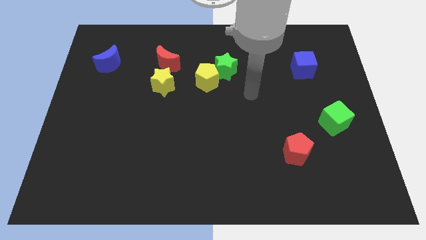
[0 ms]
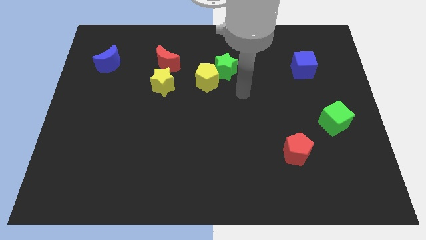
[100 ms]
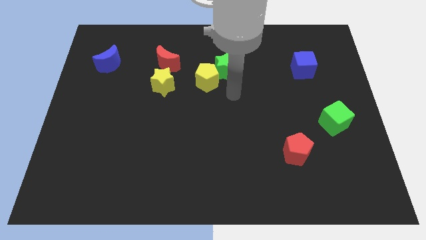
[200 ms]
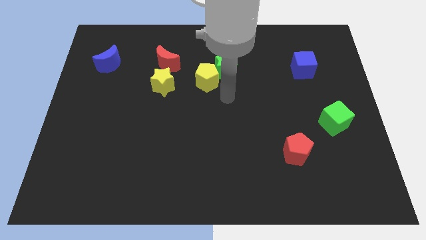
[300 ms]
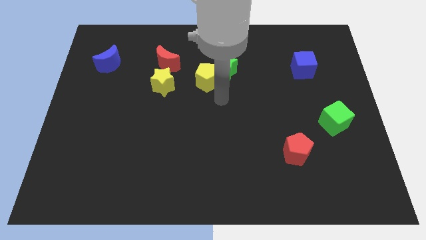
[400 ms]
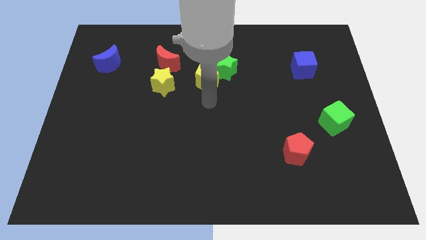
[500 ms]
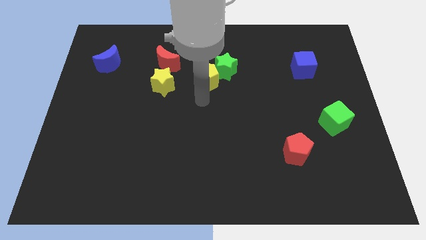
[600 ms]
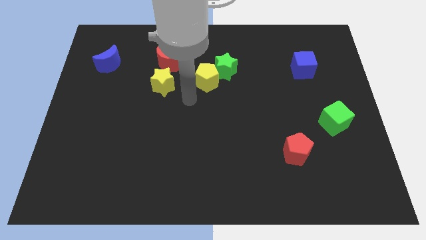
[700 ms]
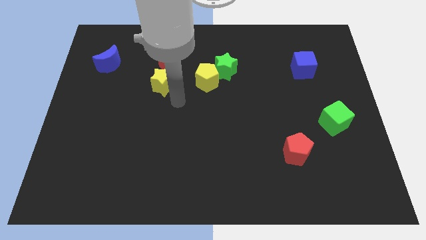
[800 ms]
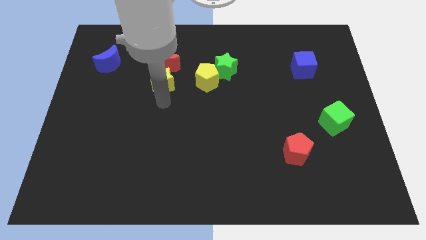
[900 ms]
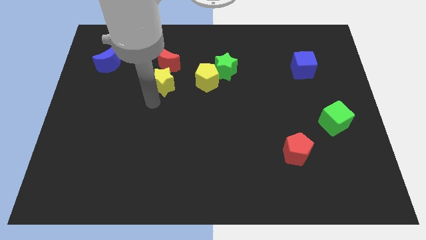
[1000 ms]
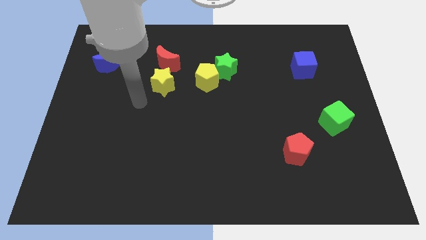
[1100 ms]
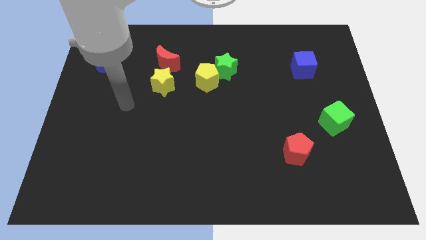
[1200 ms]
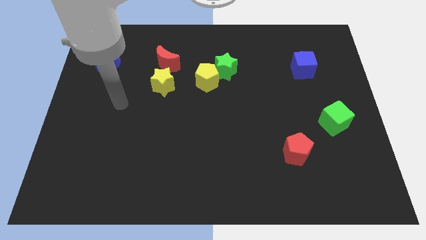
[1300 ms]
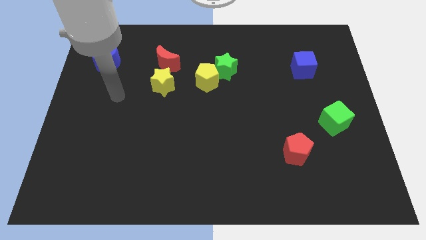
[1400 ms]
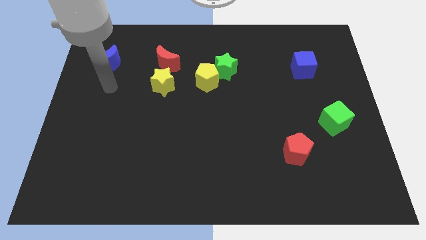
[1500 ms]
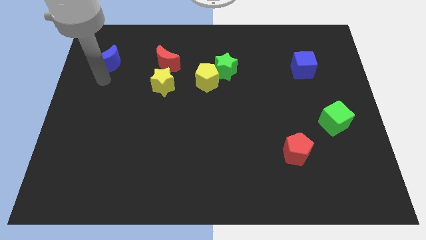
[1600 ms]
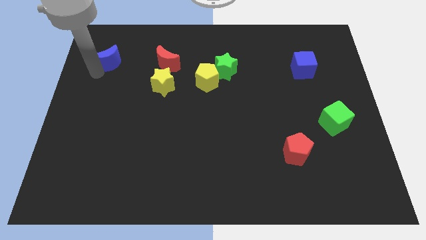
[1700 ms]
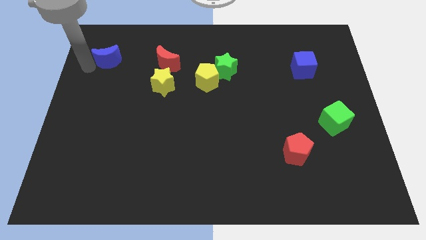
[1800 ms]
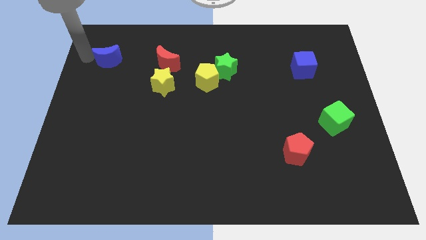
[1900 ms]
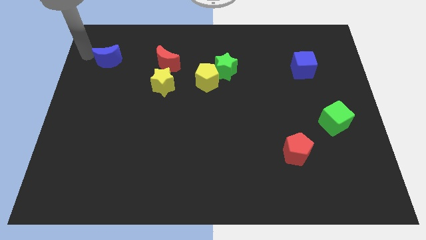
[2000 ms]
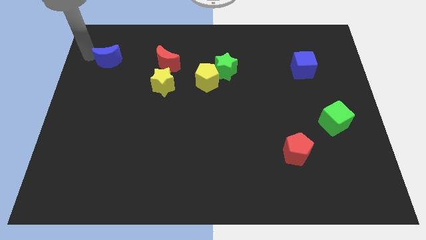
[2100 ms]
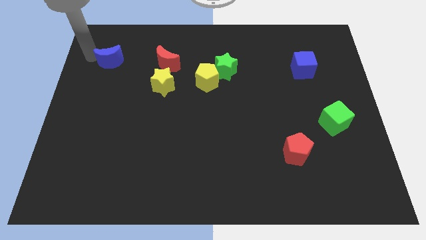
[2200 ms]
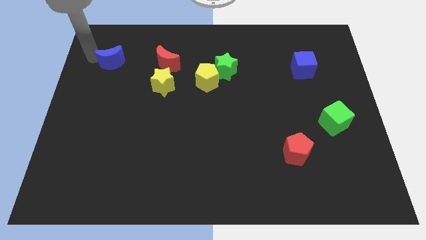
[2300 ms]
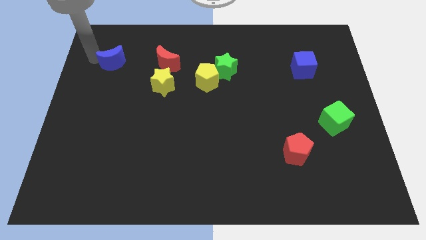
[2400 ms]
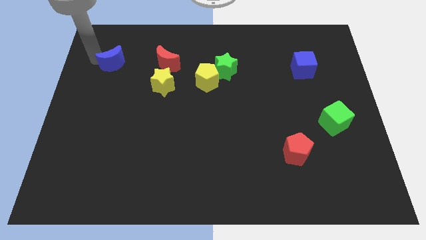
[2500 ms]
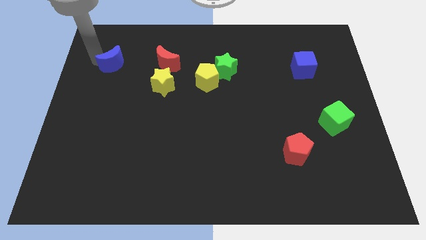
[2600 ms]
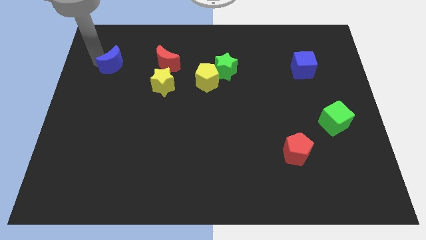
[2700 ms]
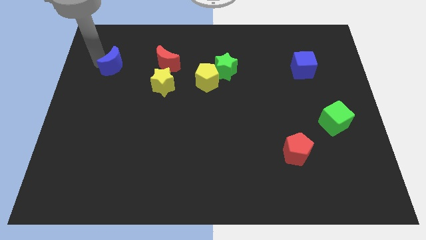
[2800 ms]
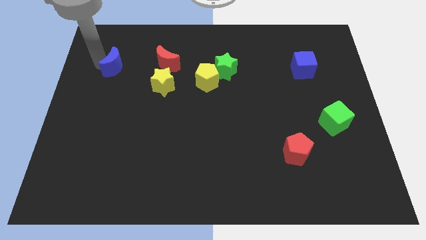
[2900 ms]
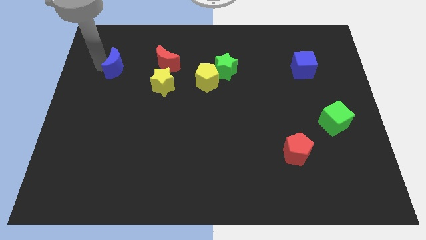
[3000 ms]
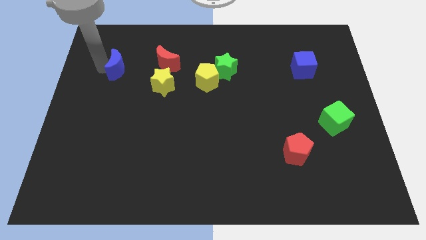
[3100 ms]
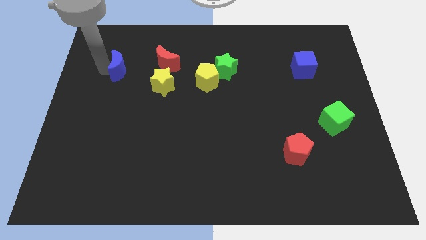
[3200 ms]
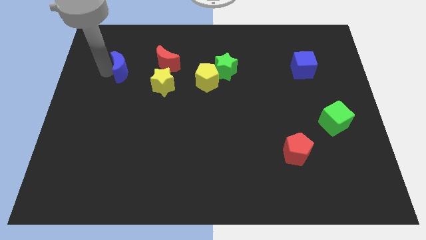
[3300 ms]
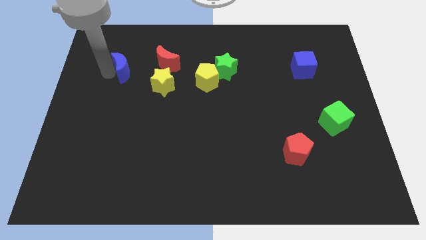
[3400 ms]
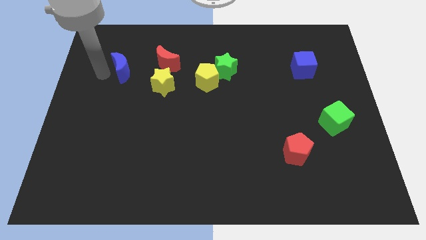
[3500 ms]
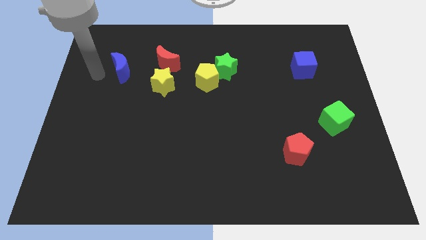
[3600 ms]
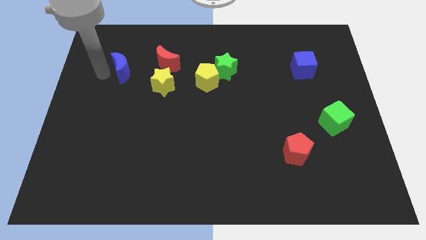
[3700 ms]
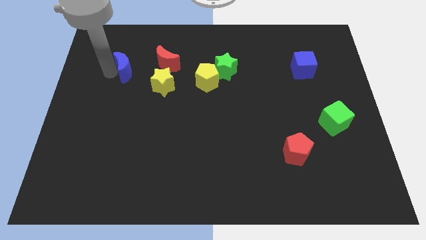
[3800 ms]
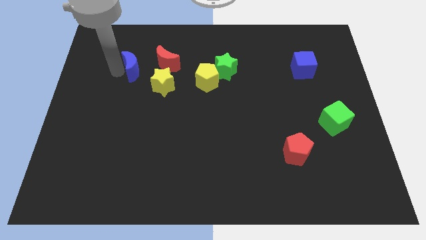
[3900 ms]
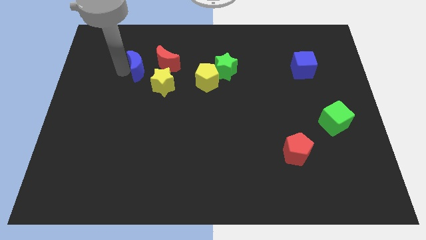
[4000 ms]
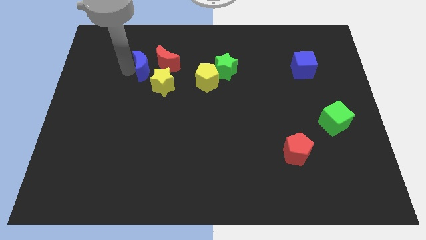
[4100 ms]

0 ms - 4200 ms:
move the blue moon to the red moon

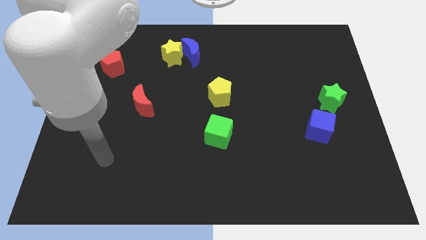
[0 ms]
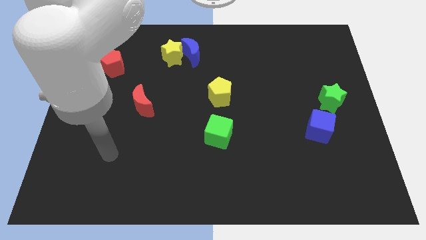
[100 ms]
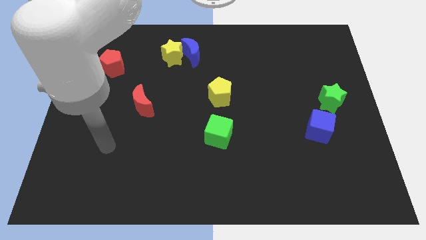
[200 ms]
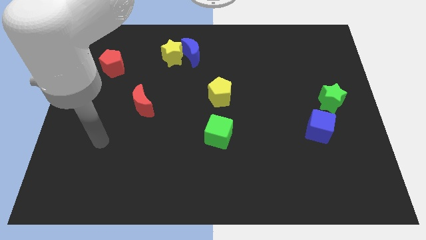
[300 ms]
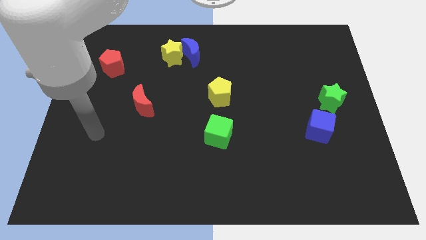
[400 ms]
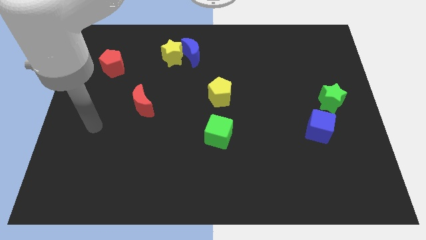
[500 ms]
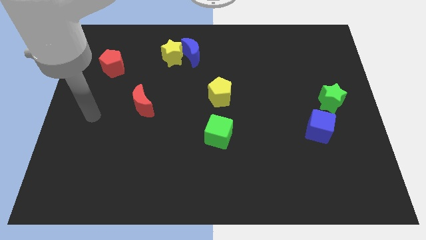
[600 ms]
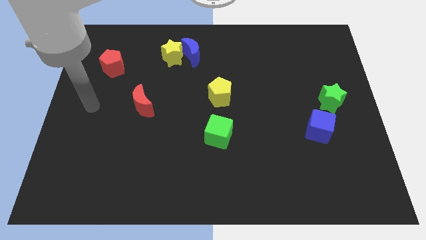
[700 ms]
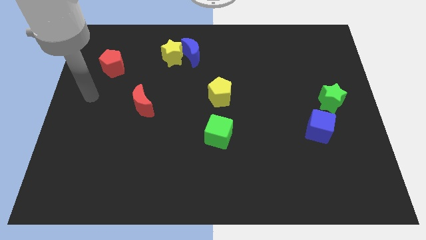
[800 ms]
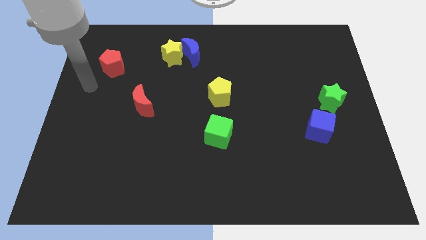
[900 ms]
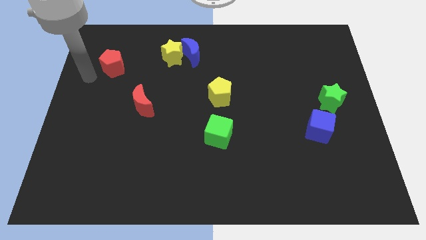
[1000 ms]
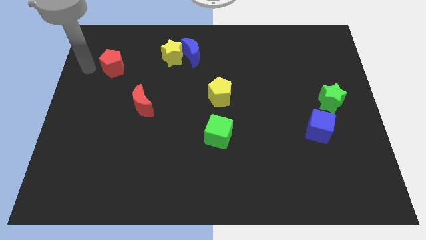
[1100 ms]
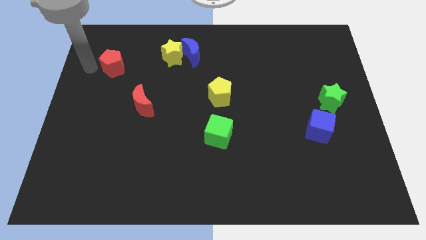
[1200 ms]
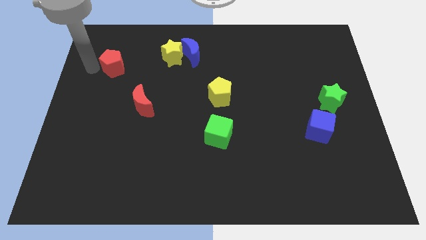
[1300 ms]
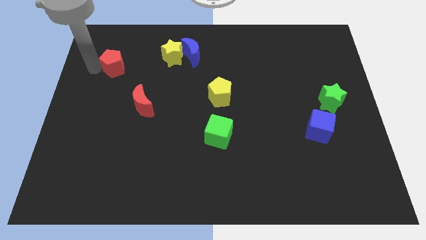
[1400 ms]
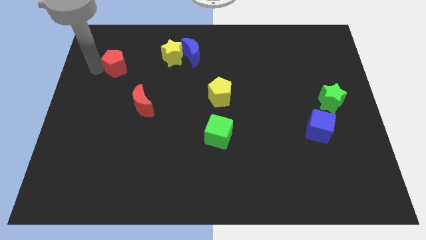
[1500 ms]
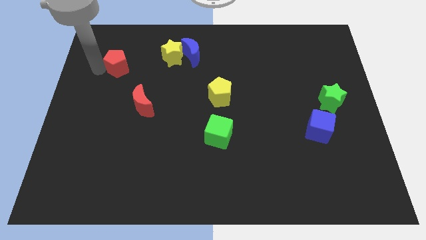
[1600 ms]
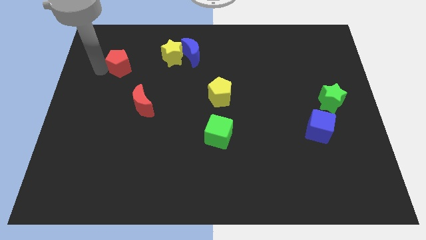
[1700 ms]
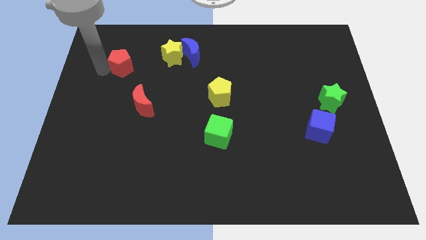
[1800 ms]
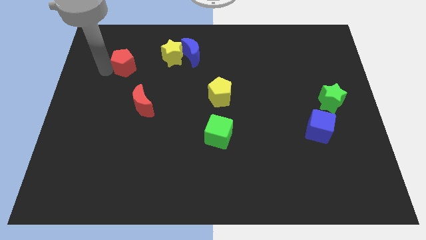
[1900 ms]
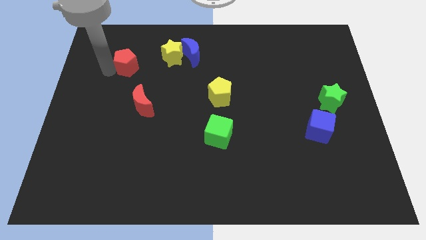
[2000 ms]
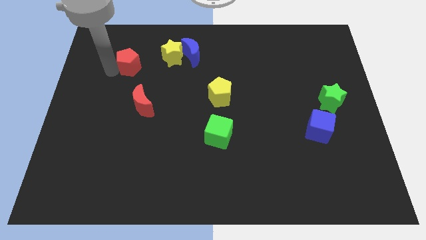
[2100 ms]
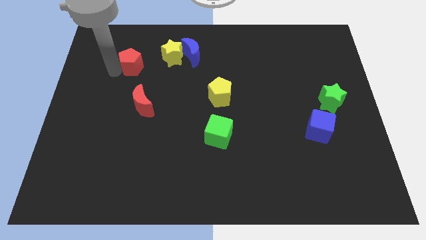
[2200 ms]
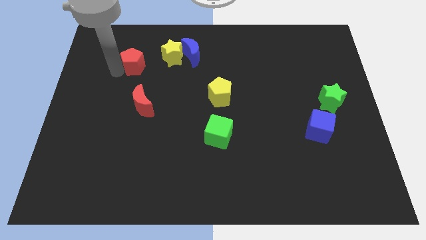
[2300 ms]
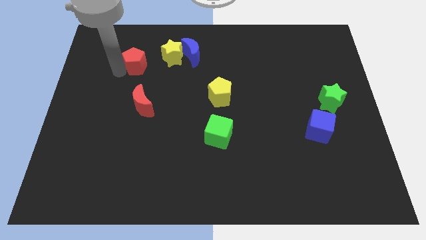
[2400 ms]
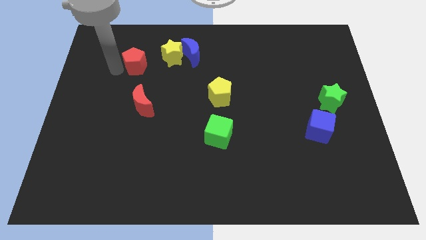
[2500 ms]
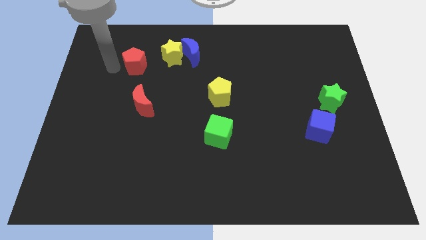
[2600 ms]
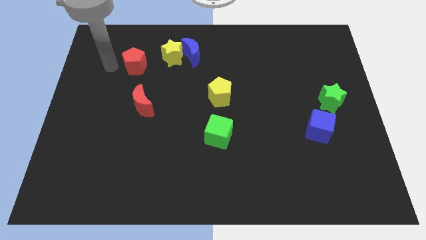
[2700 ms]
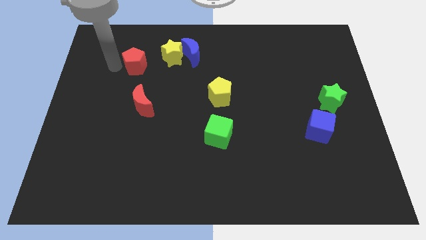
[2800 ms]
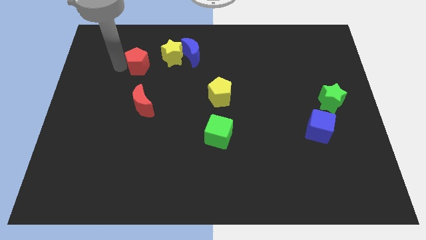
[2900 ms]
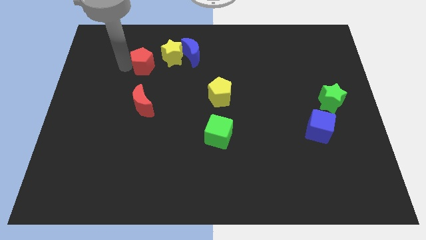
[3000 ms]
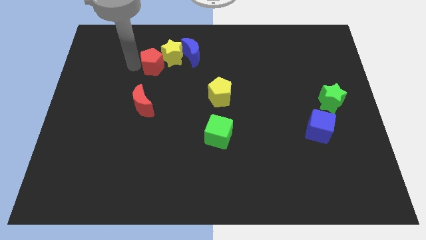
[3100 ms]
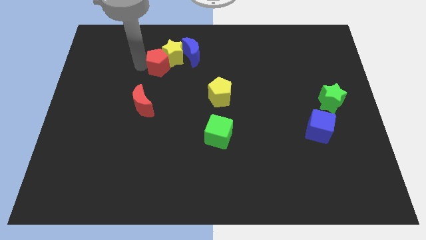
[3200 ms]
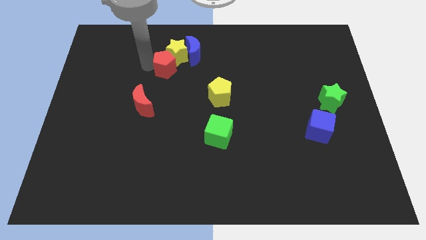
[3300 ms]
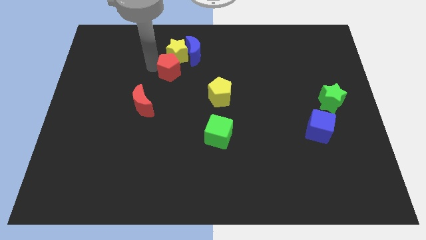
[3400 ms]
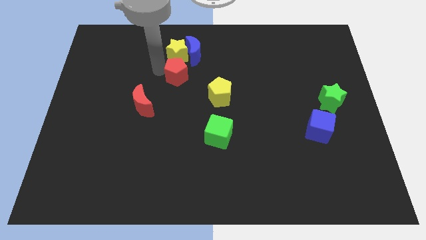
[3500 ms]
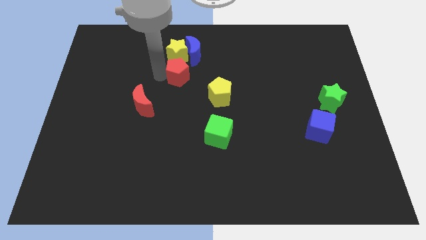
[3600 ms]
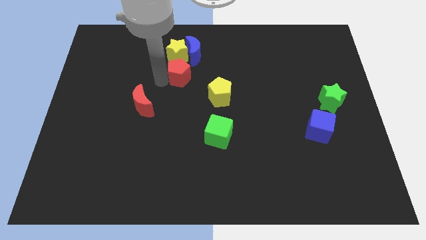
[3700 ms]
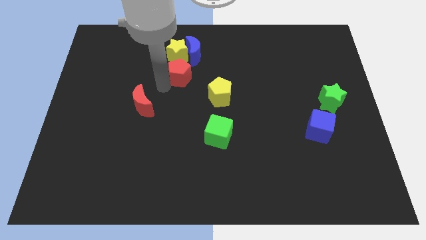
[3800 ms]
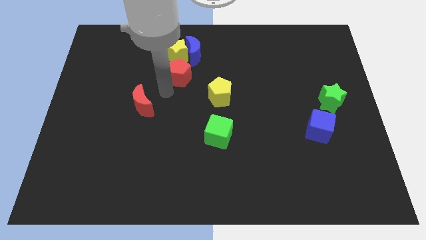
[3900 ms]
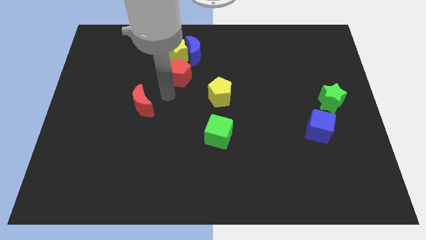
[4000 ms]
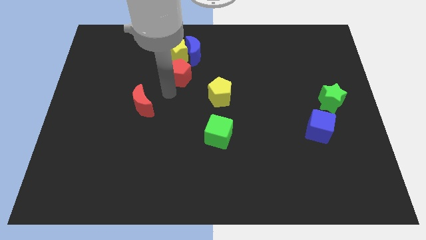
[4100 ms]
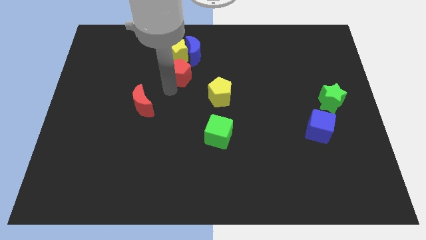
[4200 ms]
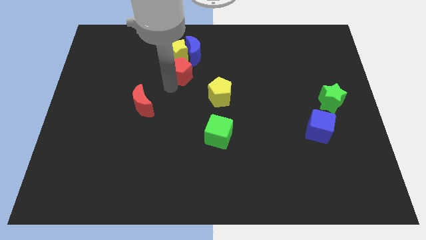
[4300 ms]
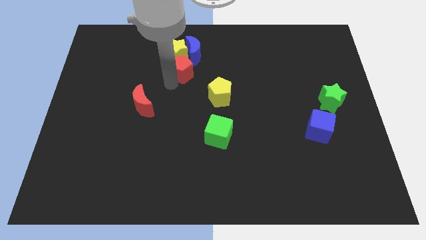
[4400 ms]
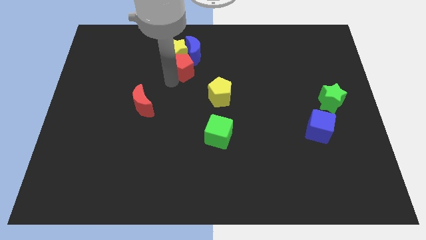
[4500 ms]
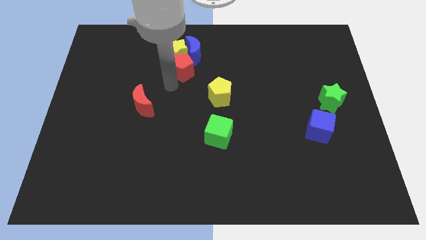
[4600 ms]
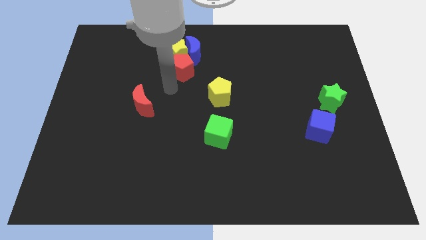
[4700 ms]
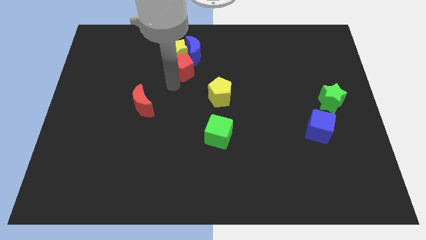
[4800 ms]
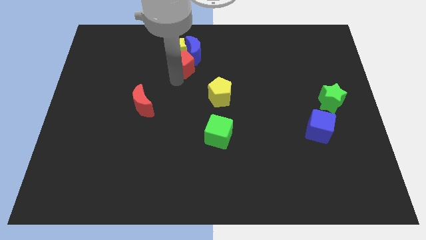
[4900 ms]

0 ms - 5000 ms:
slide the red pentagon next to the blue moon
